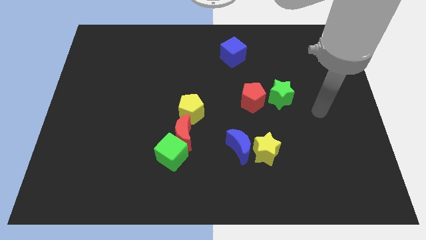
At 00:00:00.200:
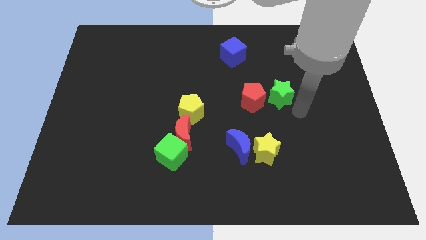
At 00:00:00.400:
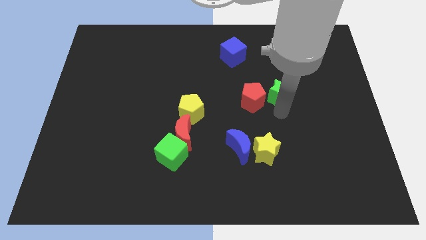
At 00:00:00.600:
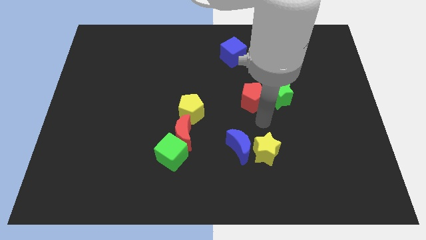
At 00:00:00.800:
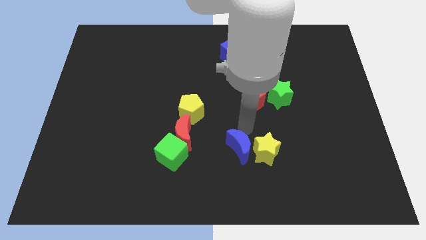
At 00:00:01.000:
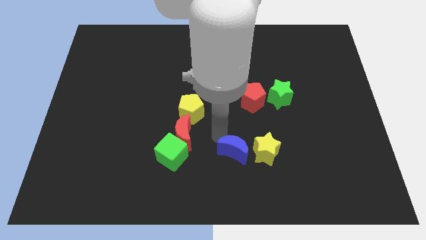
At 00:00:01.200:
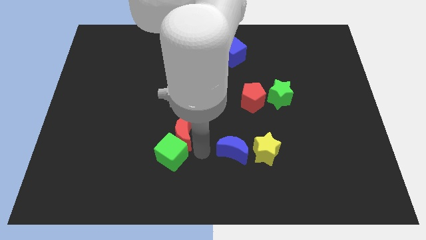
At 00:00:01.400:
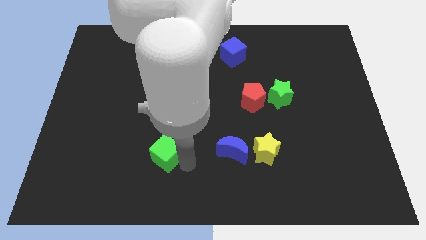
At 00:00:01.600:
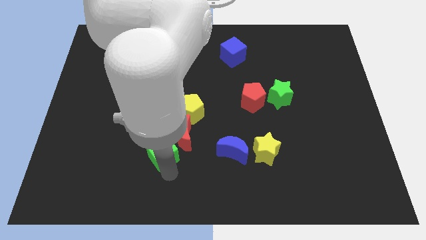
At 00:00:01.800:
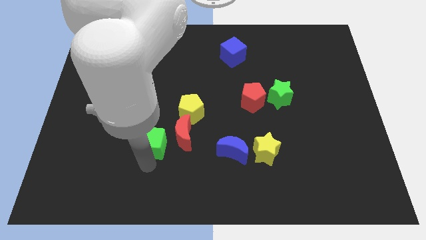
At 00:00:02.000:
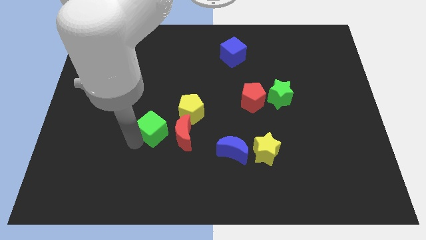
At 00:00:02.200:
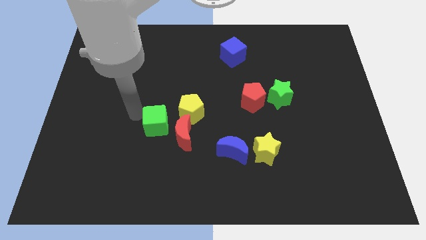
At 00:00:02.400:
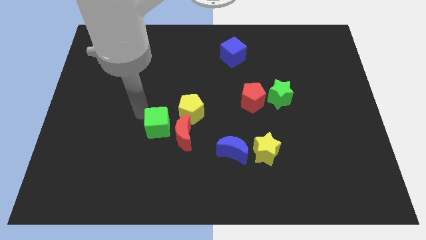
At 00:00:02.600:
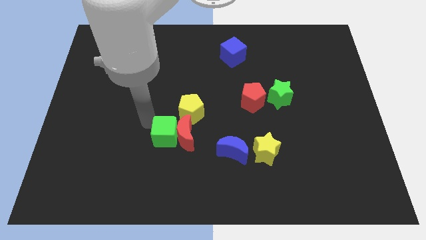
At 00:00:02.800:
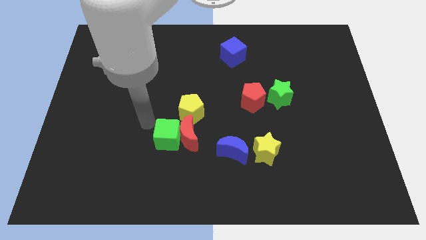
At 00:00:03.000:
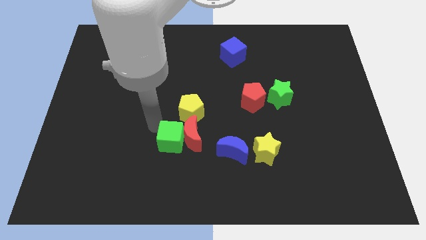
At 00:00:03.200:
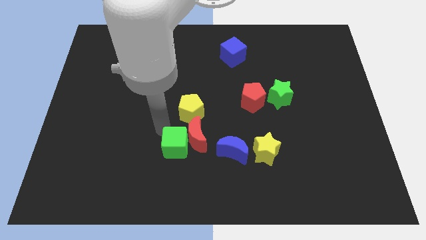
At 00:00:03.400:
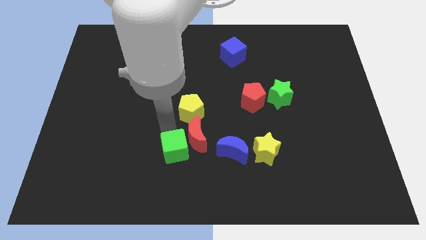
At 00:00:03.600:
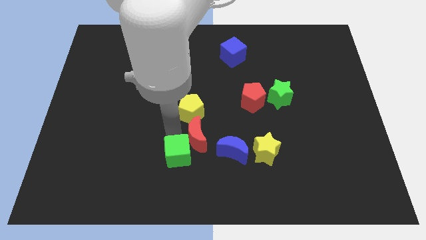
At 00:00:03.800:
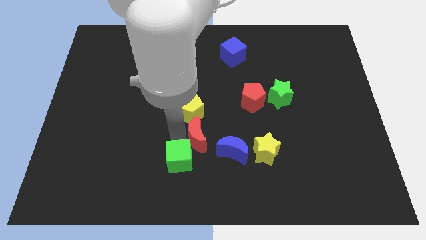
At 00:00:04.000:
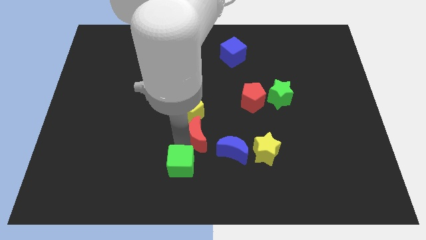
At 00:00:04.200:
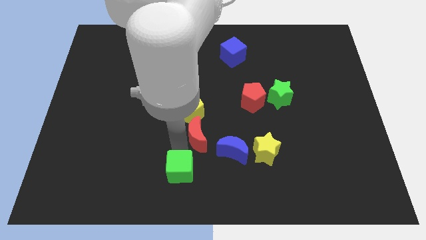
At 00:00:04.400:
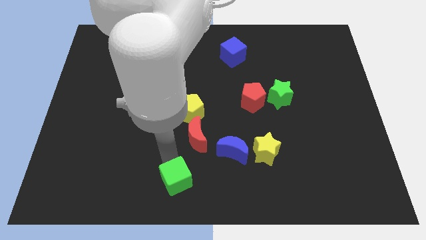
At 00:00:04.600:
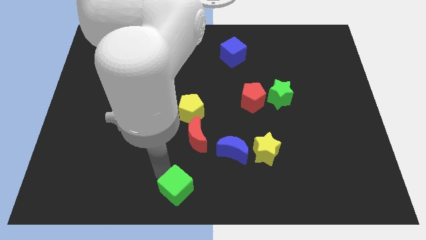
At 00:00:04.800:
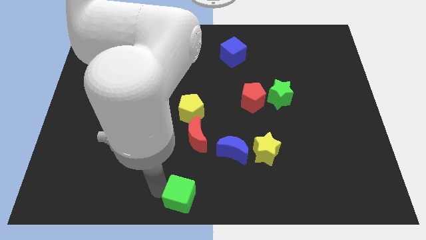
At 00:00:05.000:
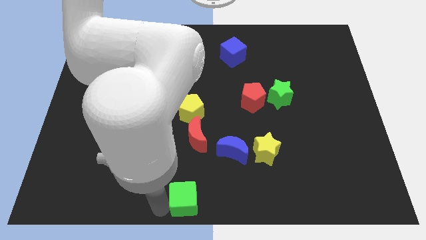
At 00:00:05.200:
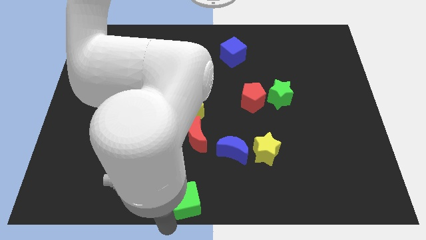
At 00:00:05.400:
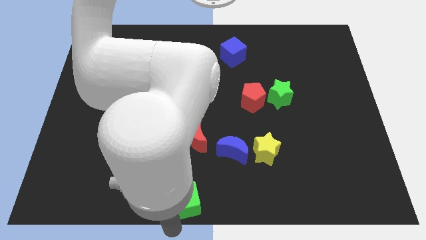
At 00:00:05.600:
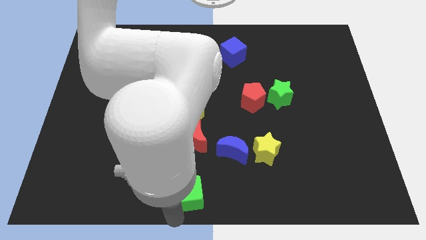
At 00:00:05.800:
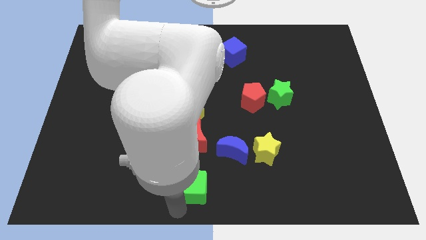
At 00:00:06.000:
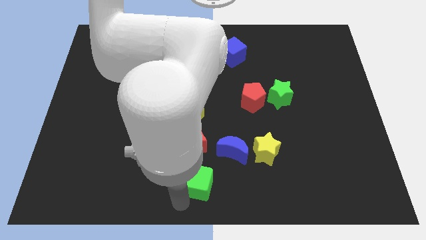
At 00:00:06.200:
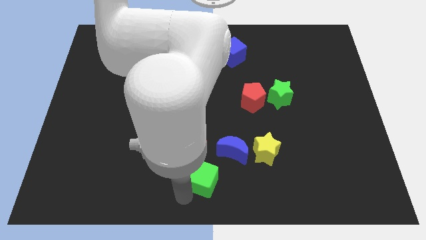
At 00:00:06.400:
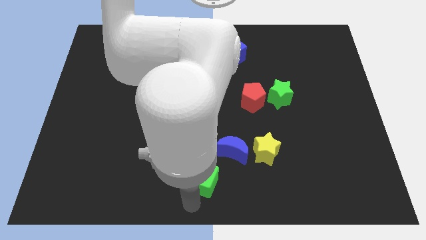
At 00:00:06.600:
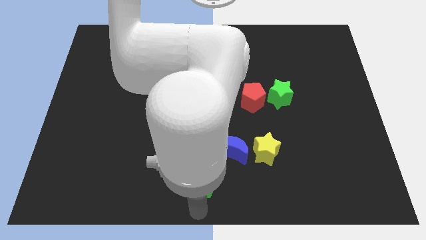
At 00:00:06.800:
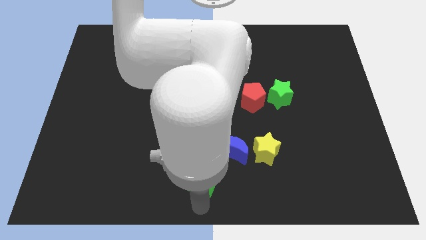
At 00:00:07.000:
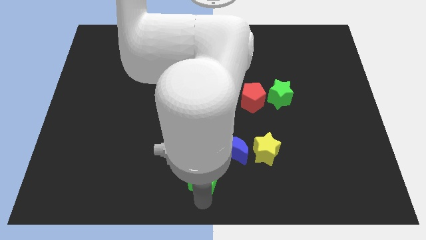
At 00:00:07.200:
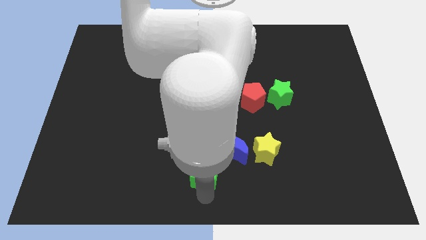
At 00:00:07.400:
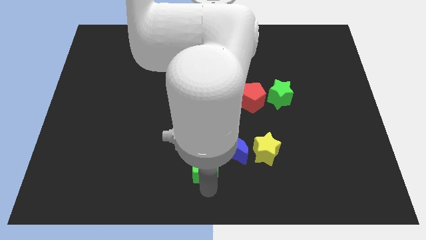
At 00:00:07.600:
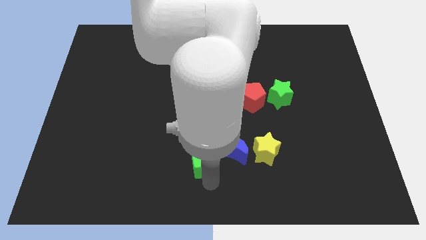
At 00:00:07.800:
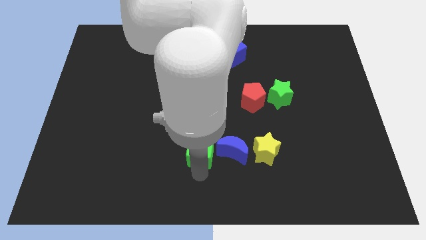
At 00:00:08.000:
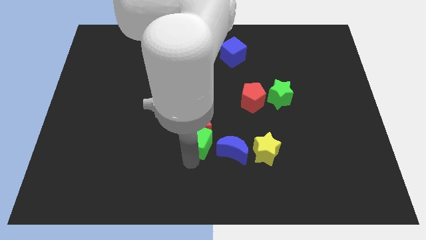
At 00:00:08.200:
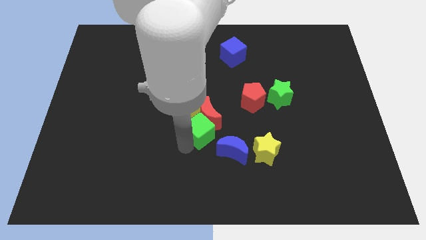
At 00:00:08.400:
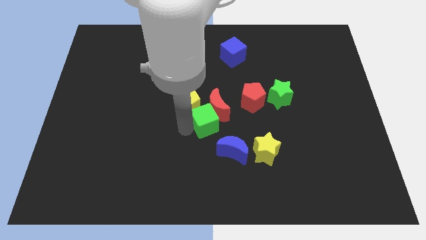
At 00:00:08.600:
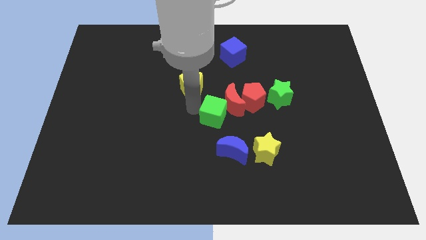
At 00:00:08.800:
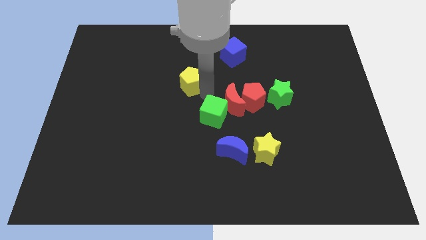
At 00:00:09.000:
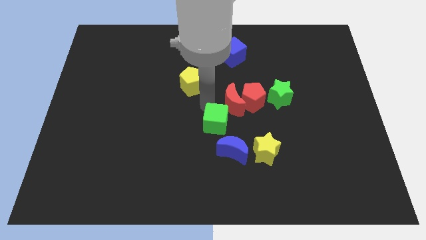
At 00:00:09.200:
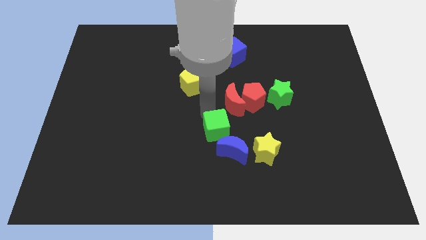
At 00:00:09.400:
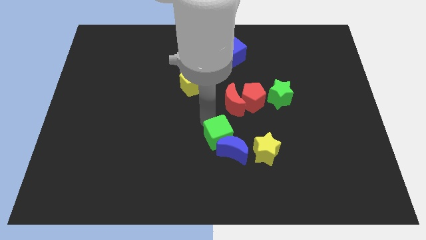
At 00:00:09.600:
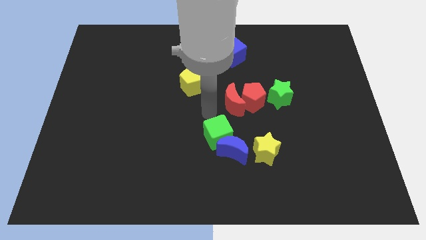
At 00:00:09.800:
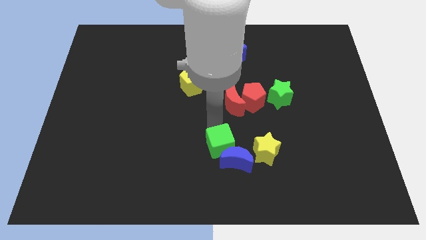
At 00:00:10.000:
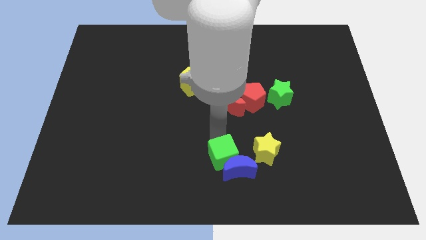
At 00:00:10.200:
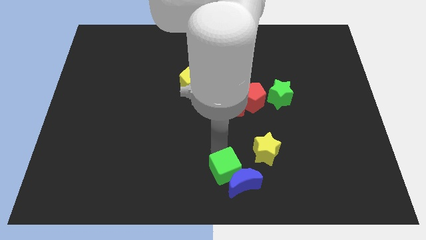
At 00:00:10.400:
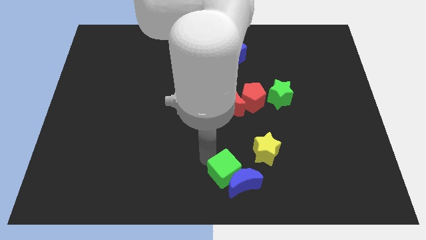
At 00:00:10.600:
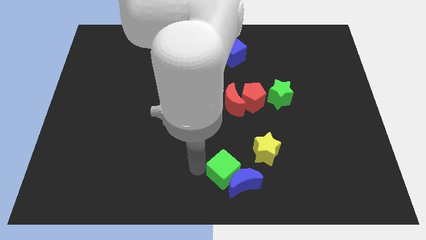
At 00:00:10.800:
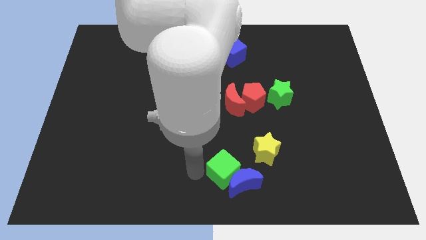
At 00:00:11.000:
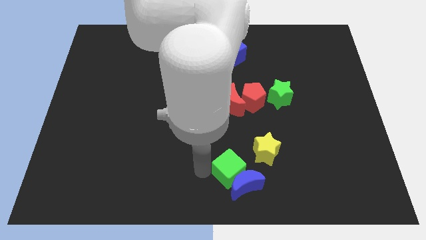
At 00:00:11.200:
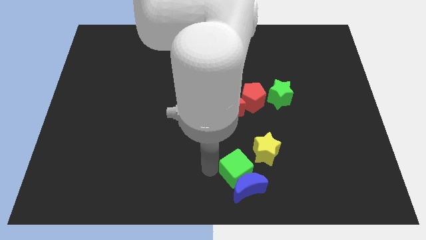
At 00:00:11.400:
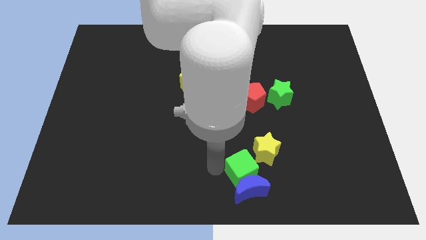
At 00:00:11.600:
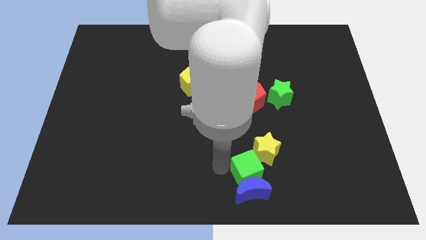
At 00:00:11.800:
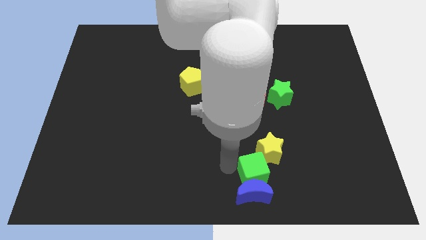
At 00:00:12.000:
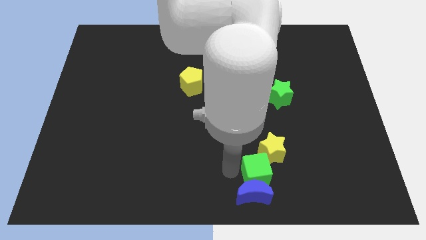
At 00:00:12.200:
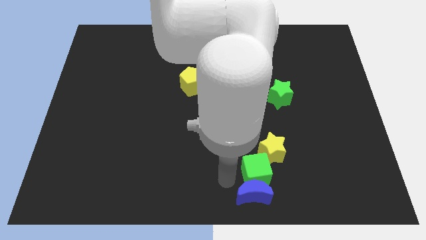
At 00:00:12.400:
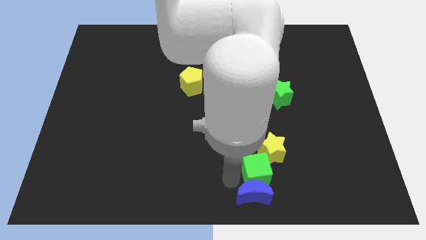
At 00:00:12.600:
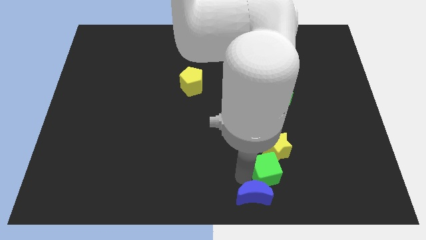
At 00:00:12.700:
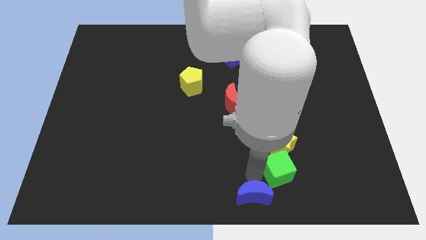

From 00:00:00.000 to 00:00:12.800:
push the green cube right

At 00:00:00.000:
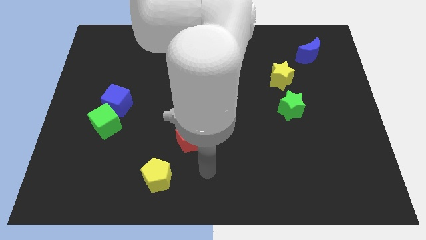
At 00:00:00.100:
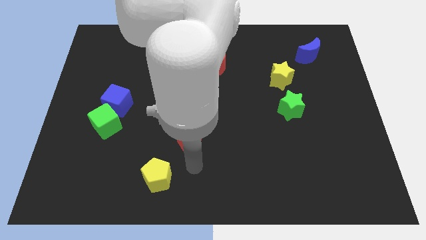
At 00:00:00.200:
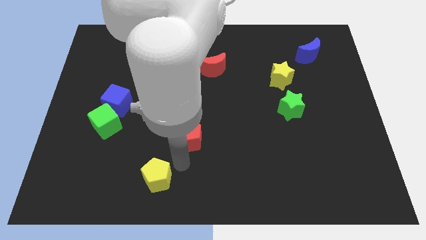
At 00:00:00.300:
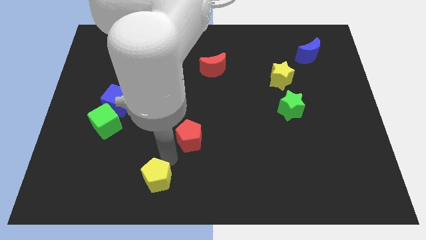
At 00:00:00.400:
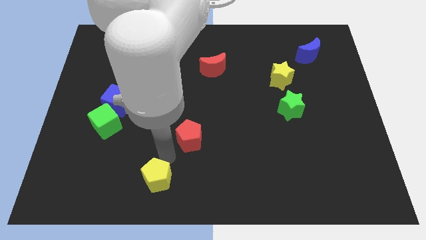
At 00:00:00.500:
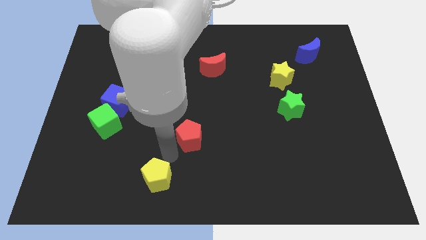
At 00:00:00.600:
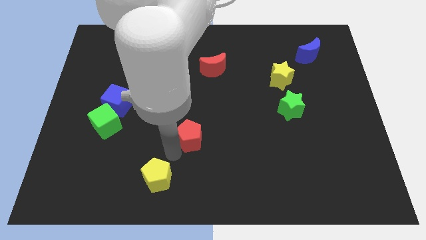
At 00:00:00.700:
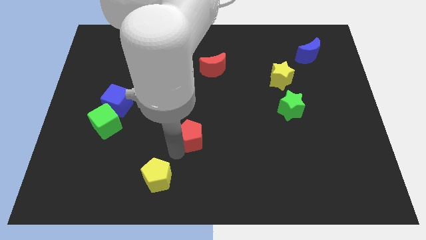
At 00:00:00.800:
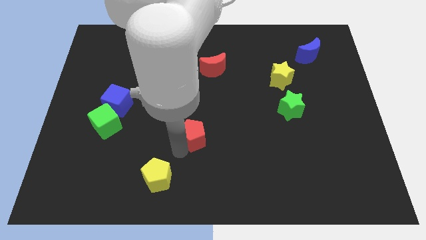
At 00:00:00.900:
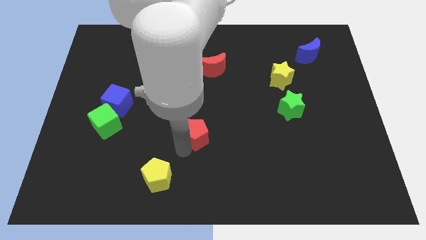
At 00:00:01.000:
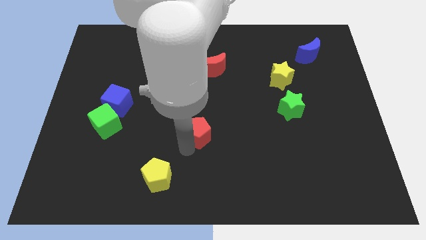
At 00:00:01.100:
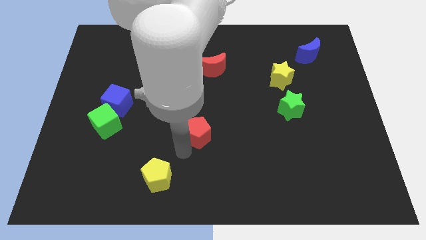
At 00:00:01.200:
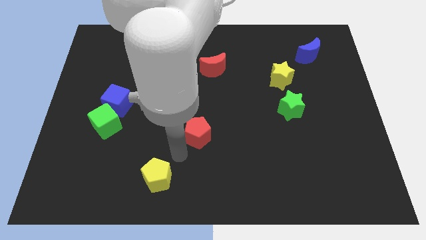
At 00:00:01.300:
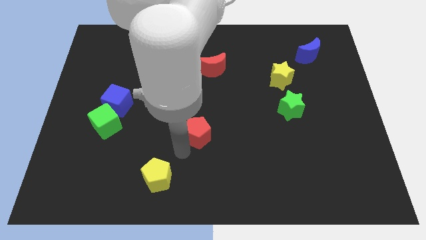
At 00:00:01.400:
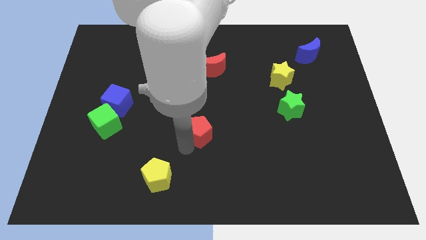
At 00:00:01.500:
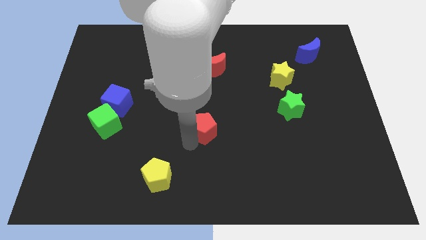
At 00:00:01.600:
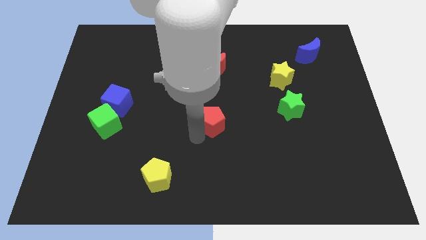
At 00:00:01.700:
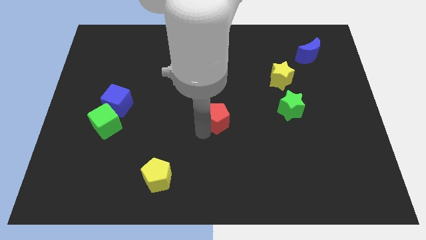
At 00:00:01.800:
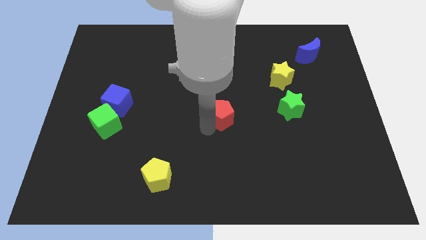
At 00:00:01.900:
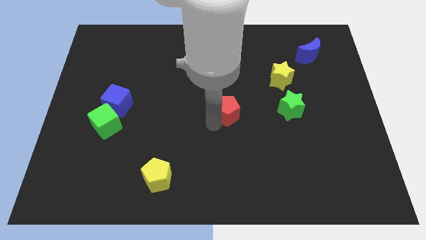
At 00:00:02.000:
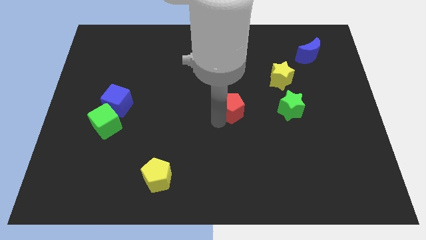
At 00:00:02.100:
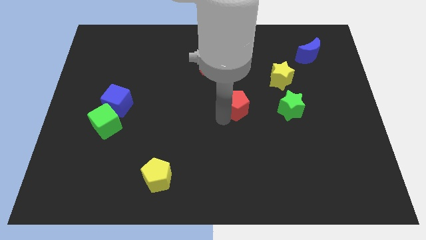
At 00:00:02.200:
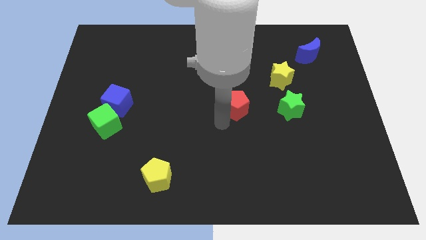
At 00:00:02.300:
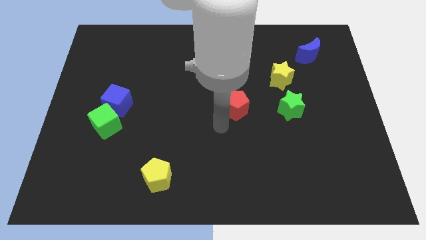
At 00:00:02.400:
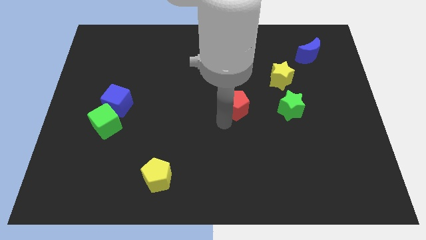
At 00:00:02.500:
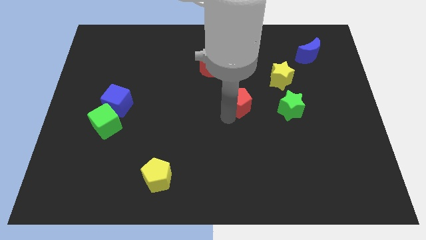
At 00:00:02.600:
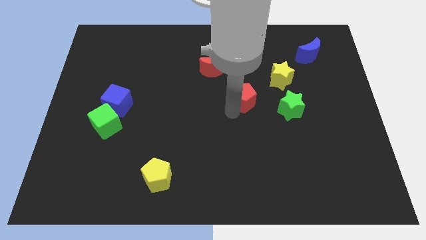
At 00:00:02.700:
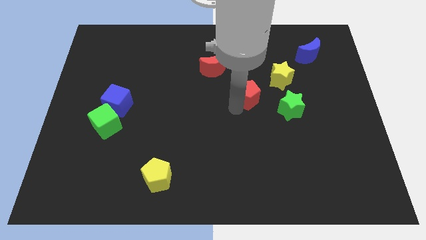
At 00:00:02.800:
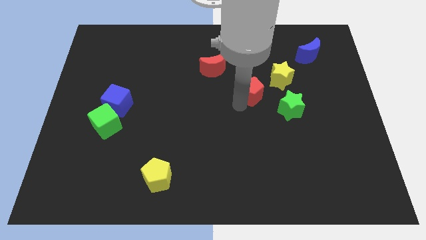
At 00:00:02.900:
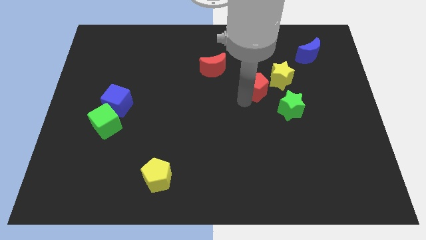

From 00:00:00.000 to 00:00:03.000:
push the red pentagon up and right diagonally
